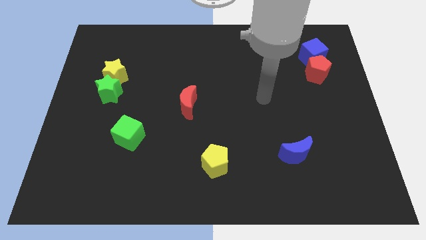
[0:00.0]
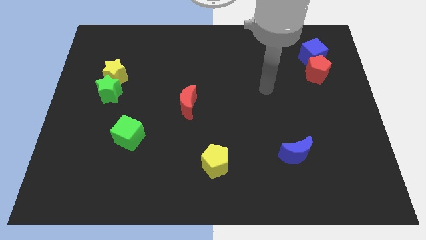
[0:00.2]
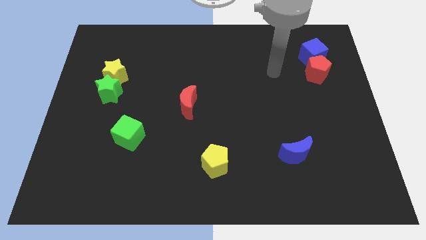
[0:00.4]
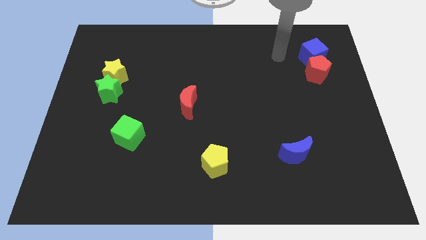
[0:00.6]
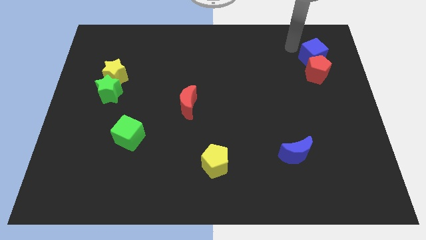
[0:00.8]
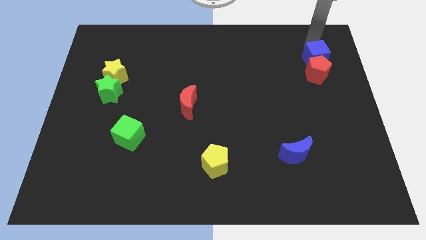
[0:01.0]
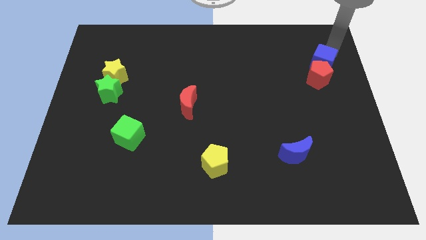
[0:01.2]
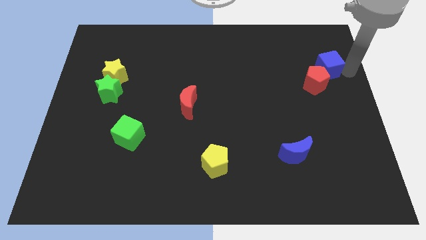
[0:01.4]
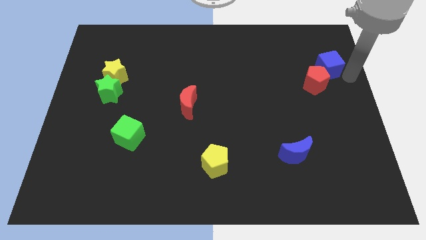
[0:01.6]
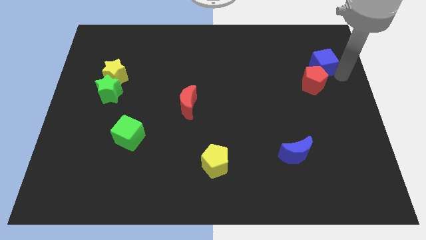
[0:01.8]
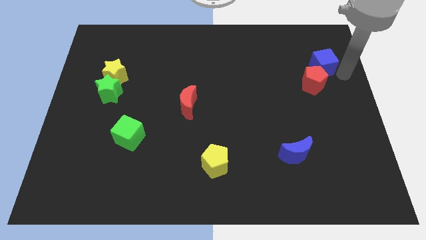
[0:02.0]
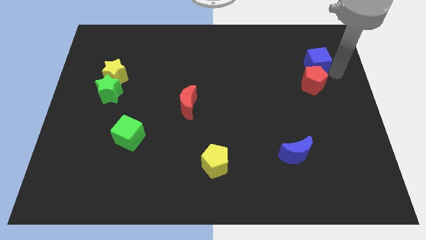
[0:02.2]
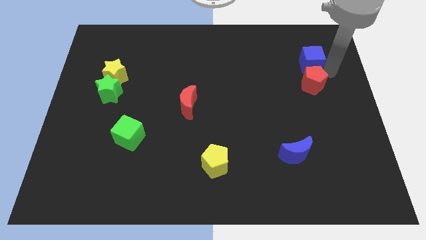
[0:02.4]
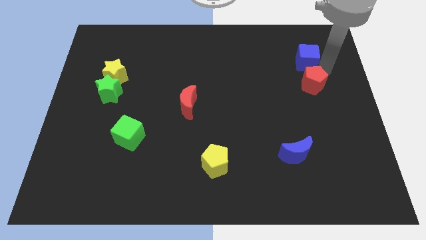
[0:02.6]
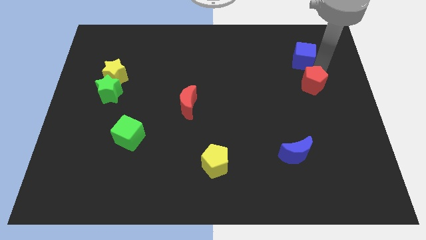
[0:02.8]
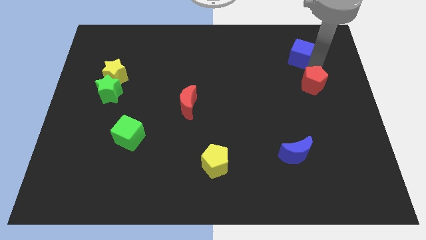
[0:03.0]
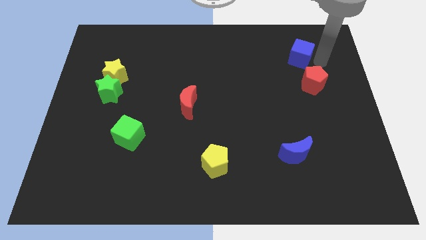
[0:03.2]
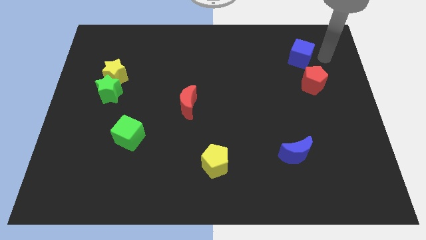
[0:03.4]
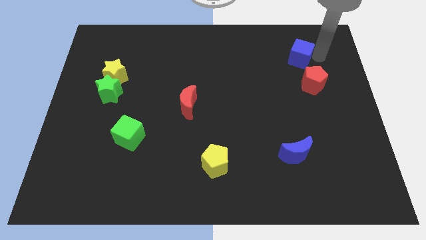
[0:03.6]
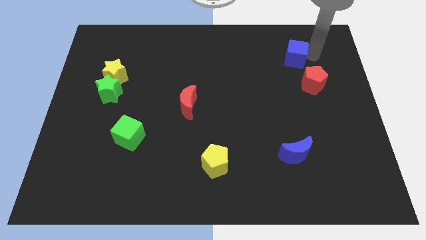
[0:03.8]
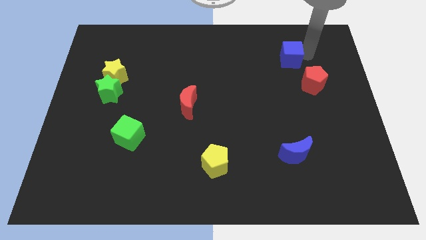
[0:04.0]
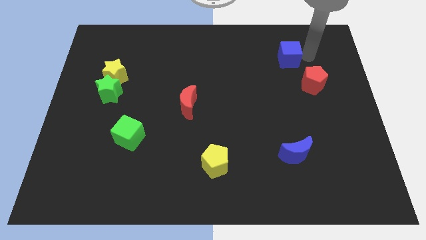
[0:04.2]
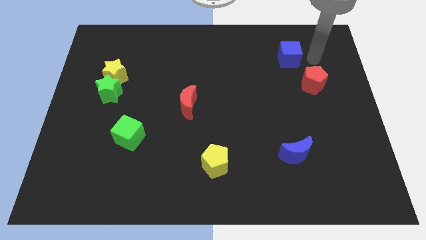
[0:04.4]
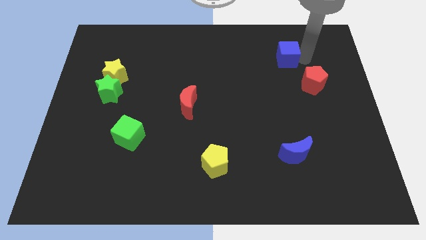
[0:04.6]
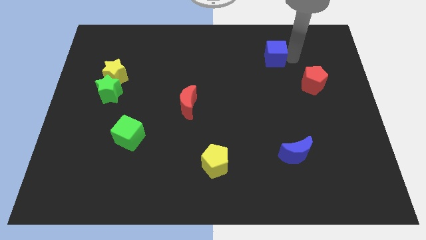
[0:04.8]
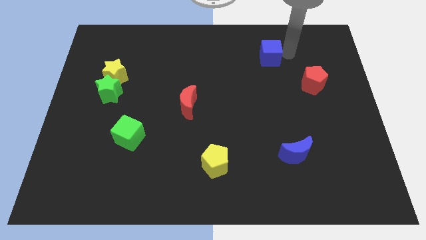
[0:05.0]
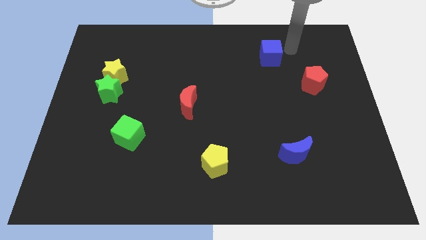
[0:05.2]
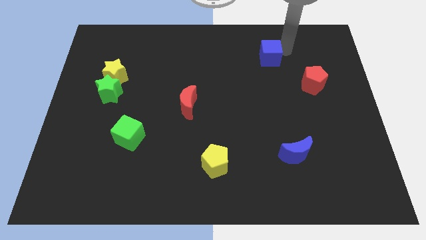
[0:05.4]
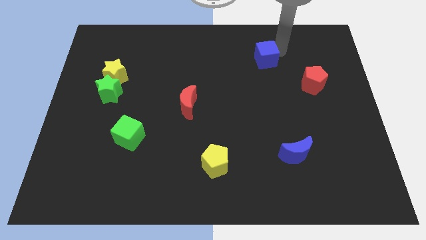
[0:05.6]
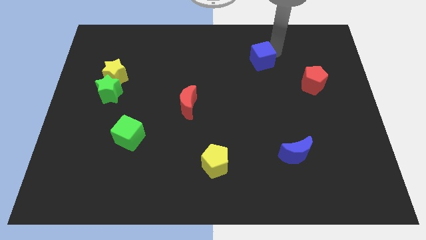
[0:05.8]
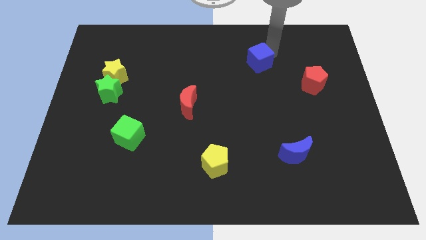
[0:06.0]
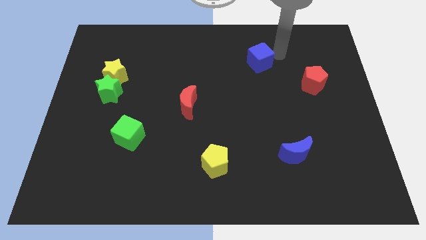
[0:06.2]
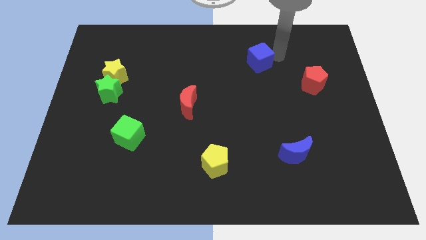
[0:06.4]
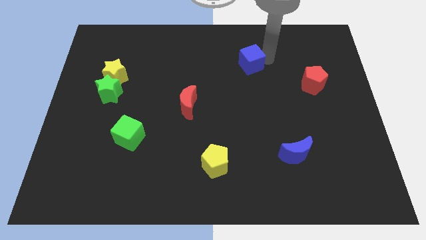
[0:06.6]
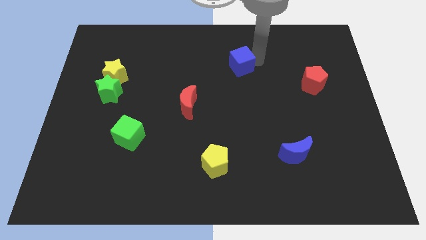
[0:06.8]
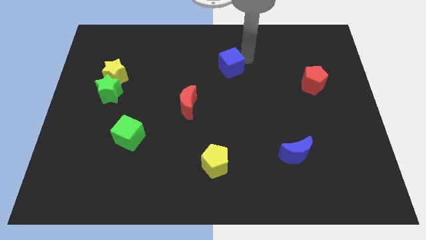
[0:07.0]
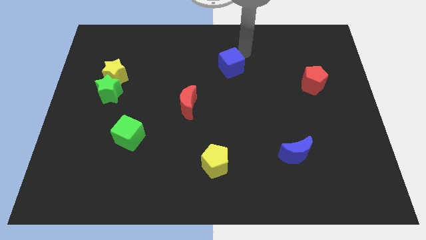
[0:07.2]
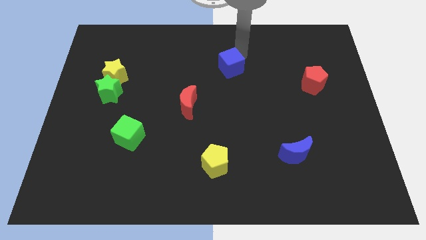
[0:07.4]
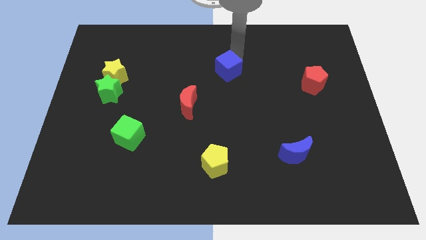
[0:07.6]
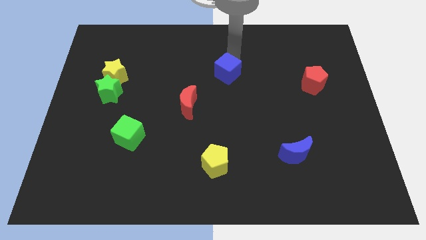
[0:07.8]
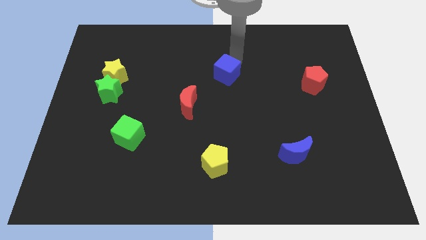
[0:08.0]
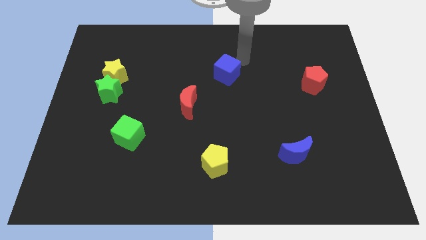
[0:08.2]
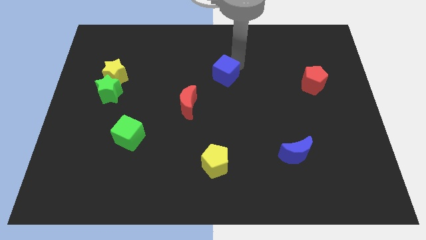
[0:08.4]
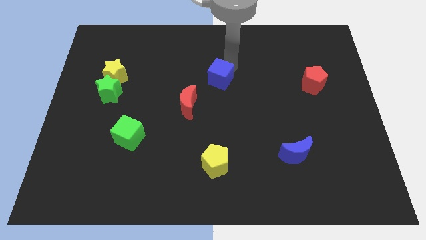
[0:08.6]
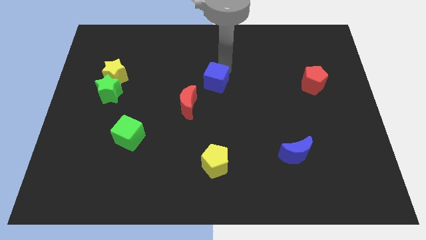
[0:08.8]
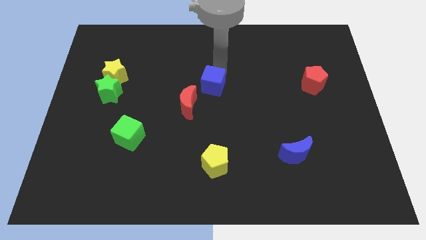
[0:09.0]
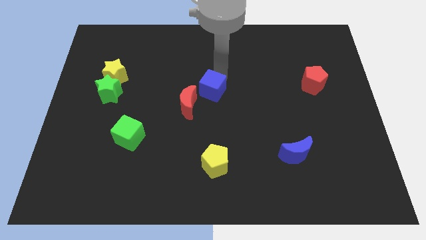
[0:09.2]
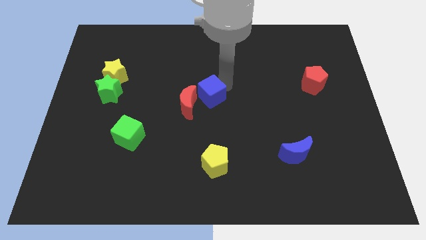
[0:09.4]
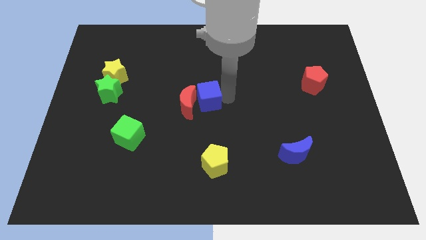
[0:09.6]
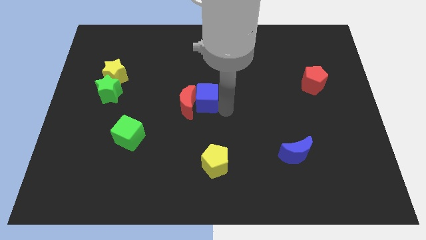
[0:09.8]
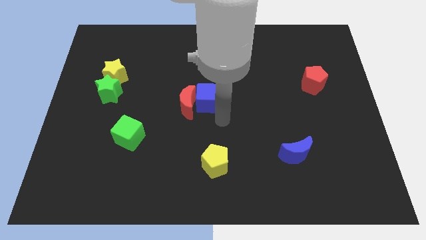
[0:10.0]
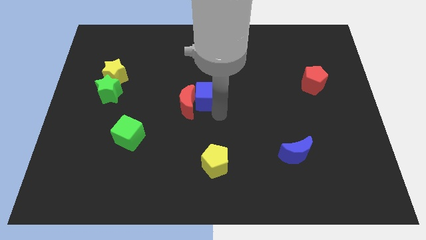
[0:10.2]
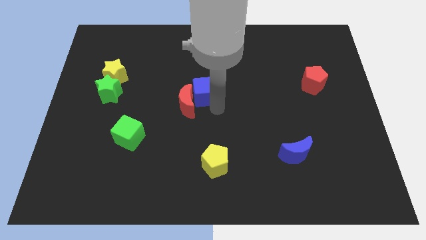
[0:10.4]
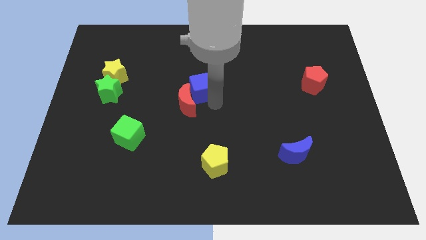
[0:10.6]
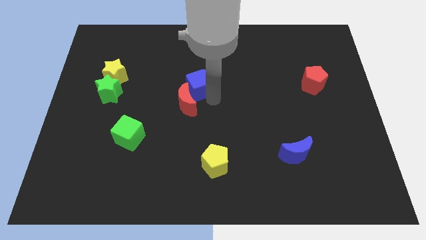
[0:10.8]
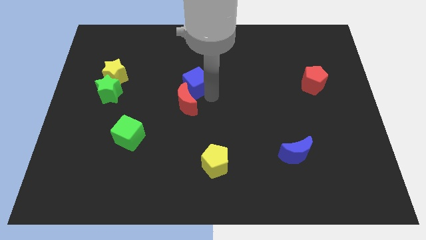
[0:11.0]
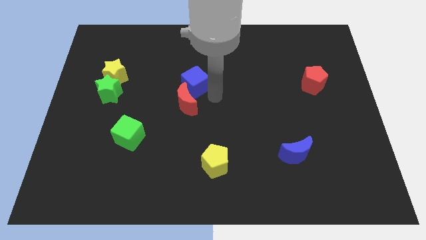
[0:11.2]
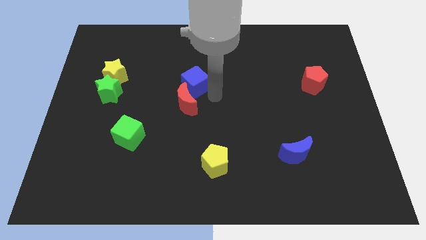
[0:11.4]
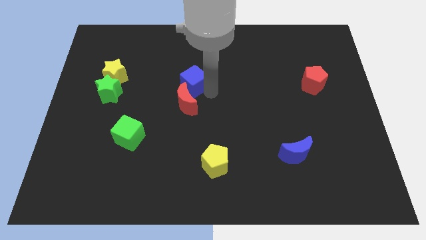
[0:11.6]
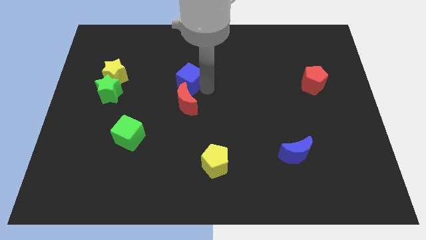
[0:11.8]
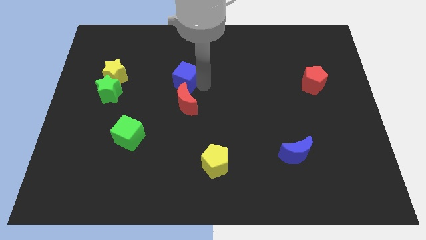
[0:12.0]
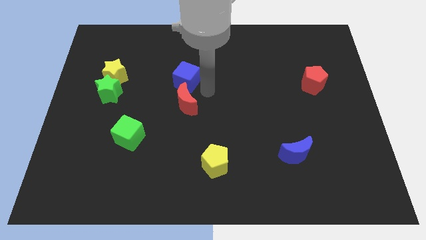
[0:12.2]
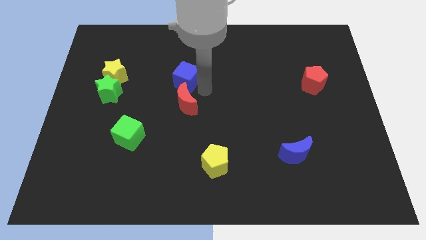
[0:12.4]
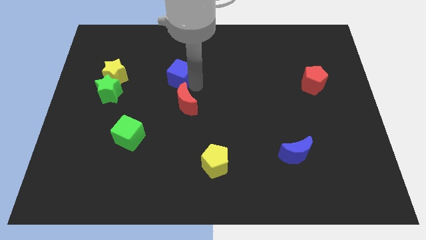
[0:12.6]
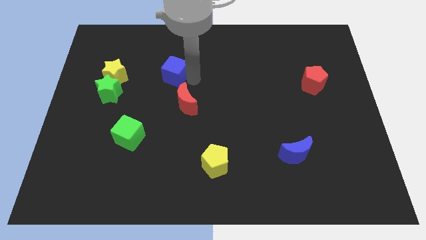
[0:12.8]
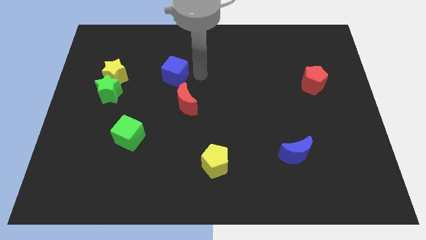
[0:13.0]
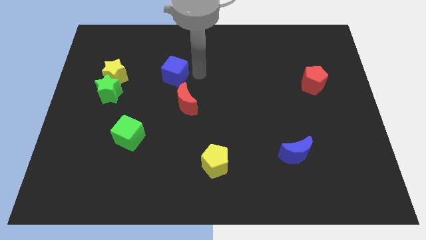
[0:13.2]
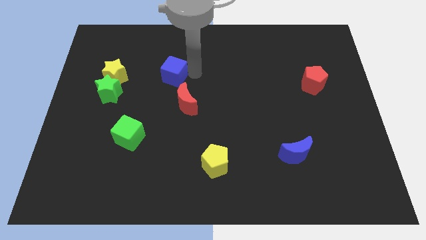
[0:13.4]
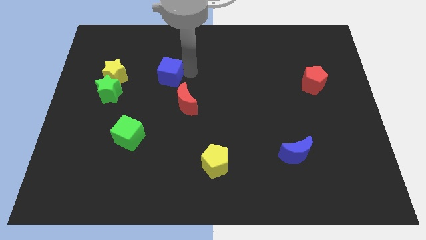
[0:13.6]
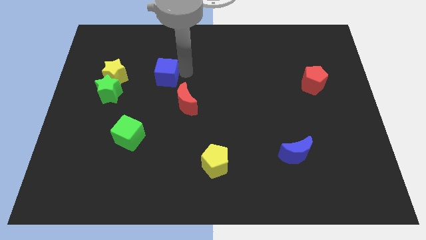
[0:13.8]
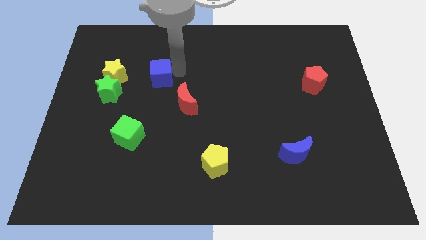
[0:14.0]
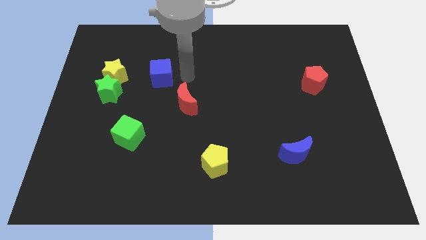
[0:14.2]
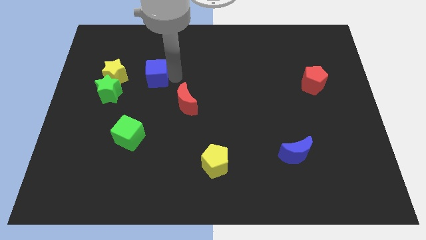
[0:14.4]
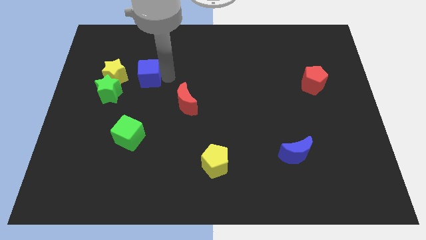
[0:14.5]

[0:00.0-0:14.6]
put the blue cube diagonally up and to the right of the green star

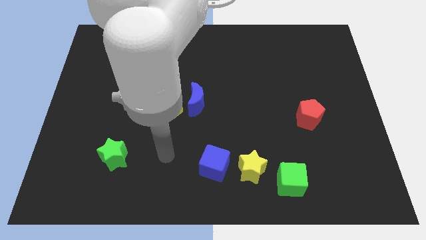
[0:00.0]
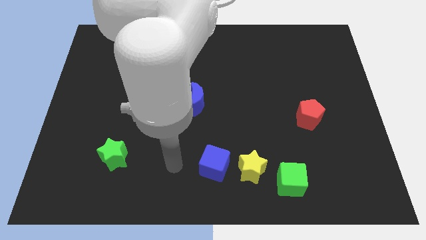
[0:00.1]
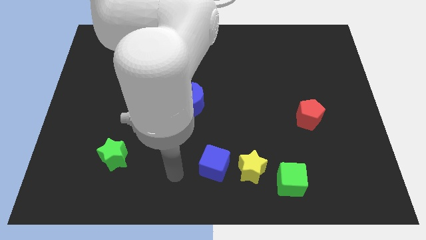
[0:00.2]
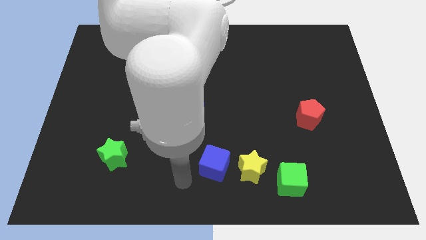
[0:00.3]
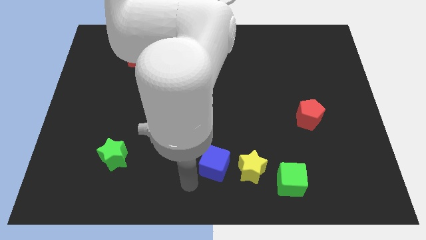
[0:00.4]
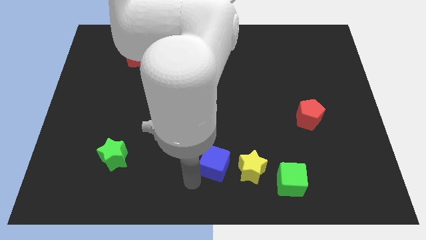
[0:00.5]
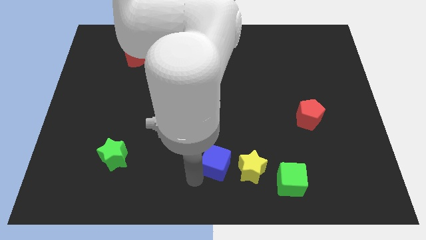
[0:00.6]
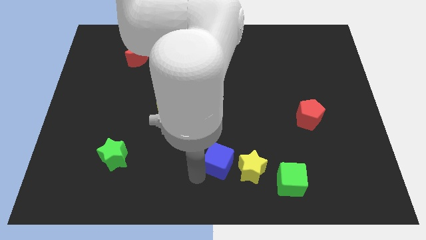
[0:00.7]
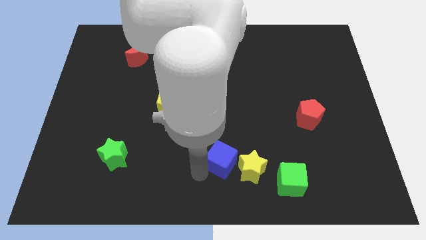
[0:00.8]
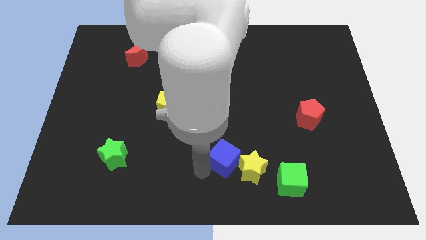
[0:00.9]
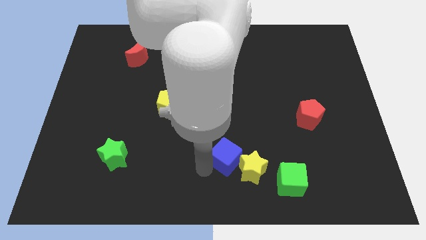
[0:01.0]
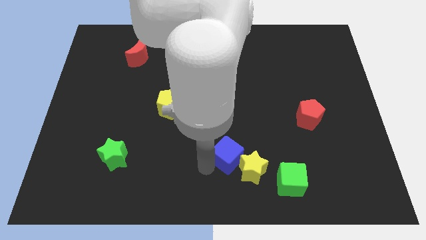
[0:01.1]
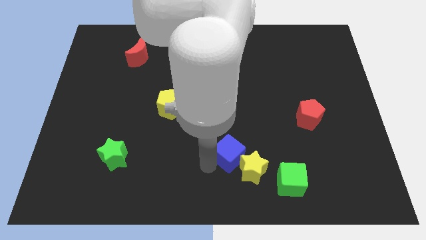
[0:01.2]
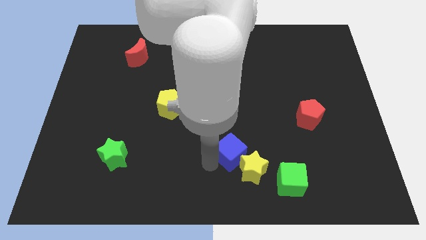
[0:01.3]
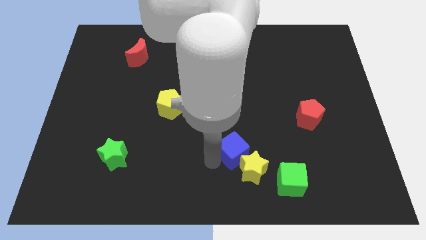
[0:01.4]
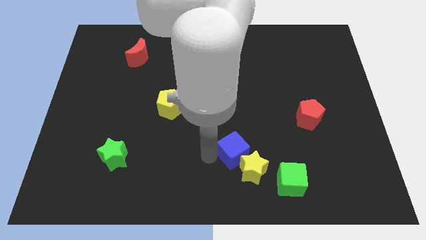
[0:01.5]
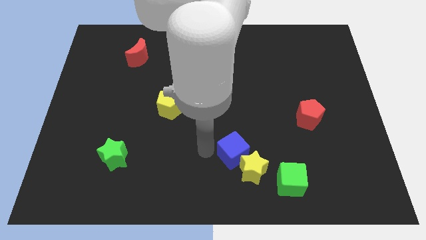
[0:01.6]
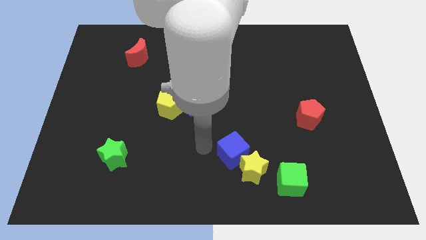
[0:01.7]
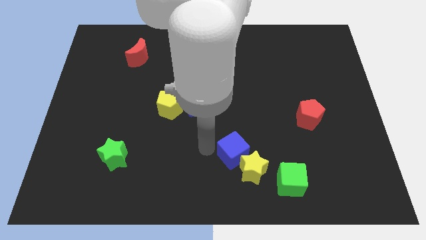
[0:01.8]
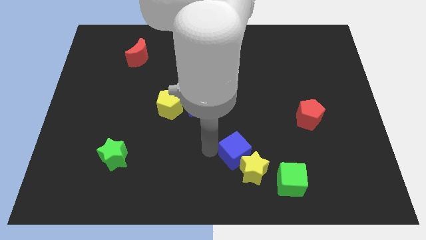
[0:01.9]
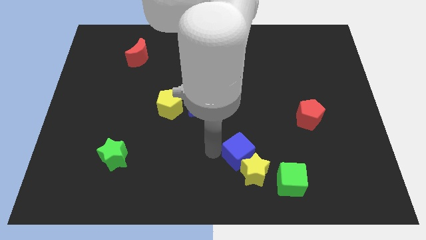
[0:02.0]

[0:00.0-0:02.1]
put the blue cube to the top left side of the green cube
